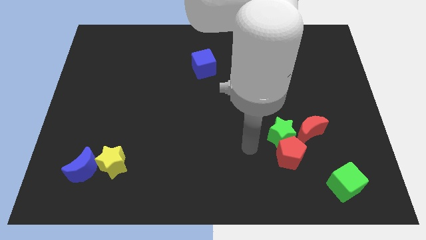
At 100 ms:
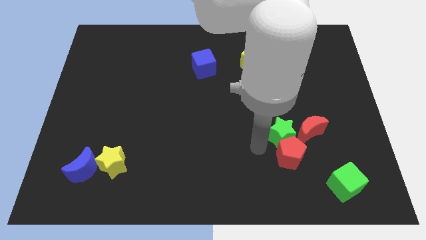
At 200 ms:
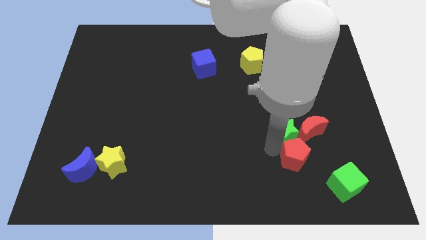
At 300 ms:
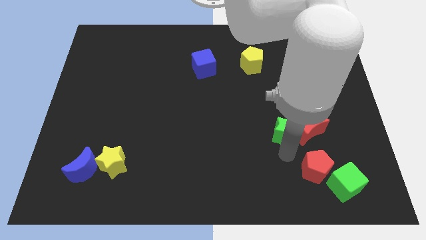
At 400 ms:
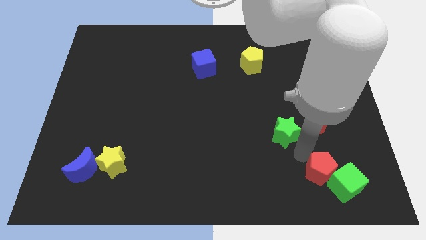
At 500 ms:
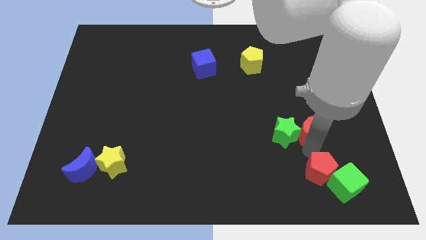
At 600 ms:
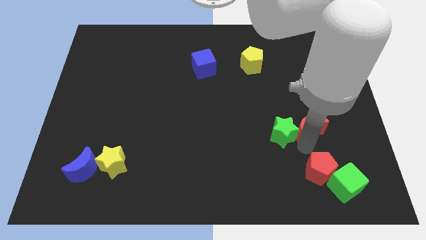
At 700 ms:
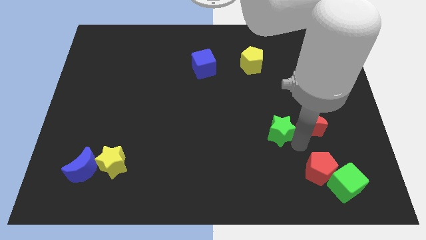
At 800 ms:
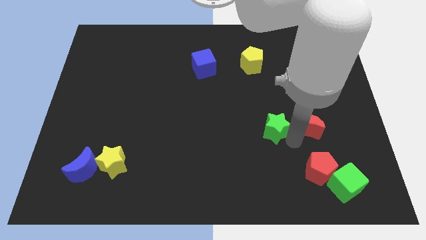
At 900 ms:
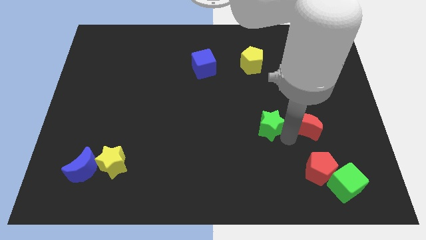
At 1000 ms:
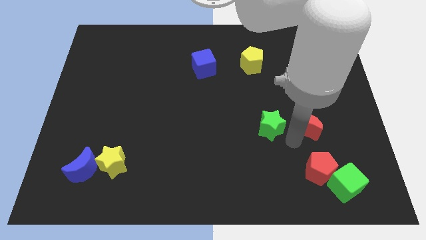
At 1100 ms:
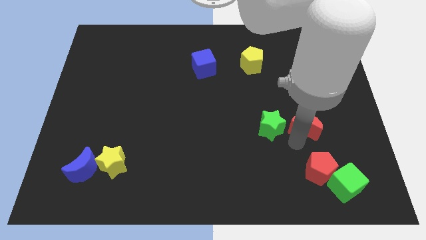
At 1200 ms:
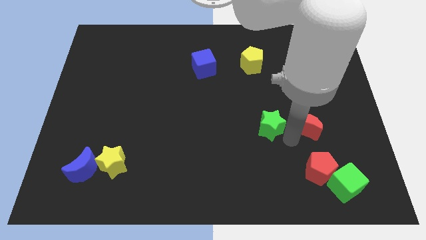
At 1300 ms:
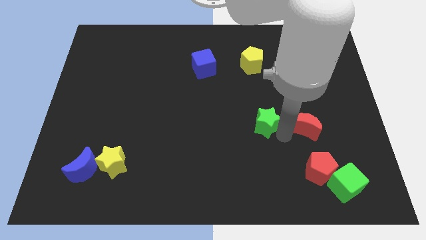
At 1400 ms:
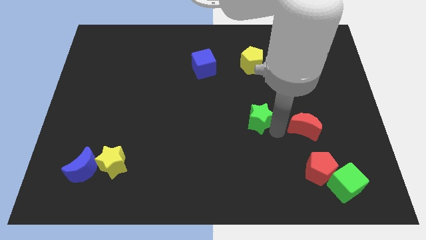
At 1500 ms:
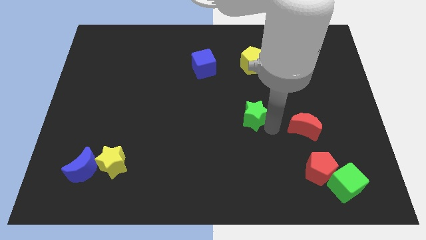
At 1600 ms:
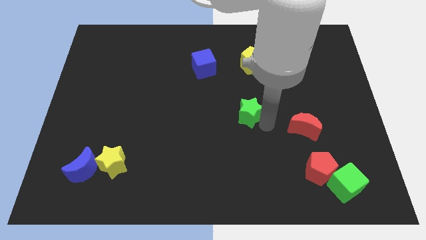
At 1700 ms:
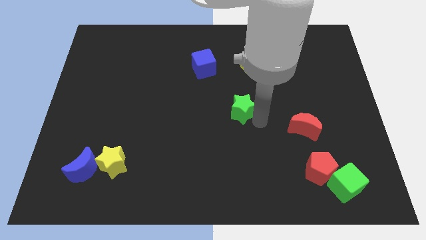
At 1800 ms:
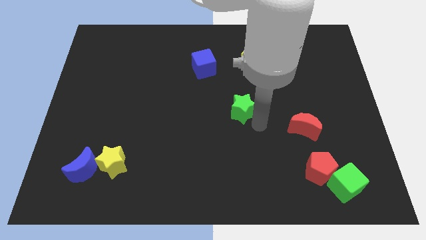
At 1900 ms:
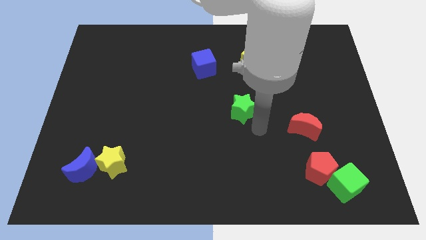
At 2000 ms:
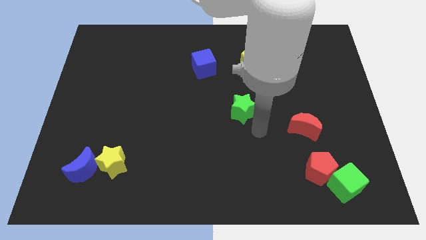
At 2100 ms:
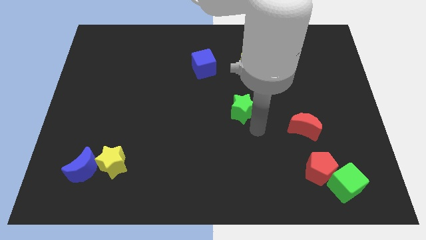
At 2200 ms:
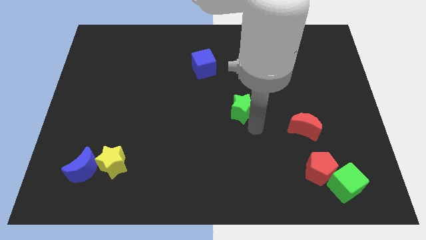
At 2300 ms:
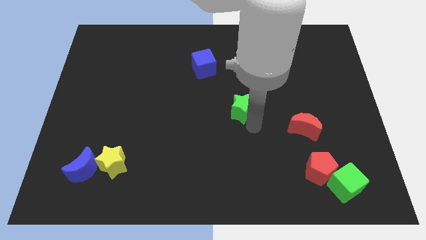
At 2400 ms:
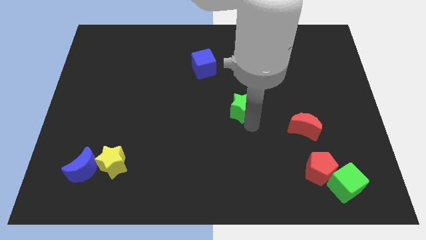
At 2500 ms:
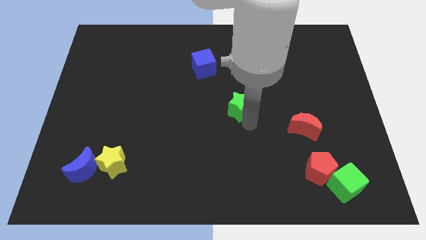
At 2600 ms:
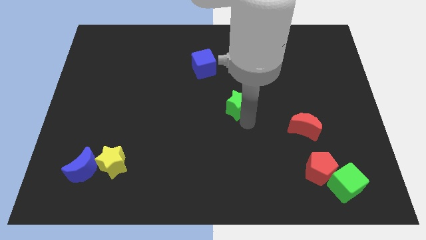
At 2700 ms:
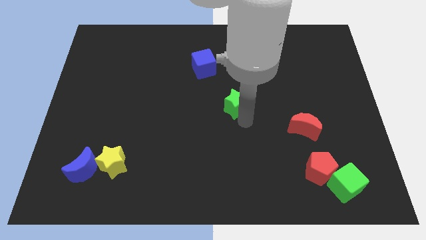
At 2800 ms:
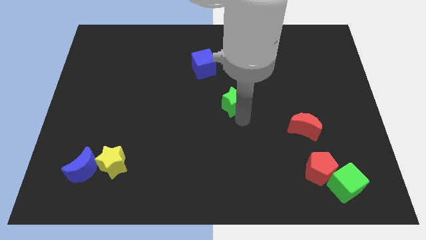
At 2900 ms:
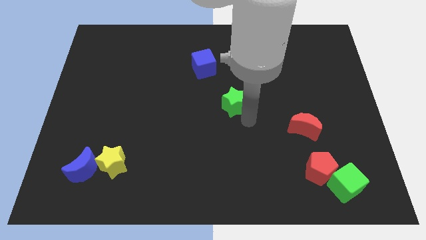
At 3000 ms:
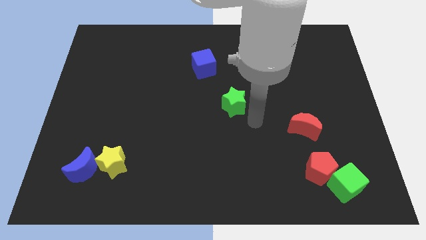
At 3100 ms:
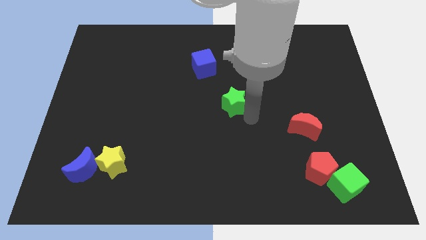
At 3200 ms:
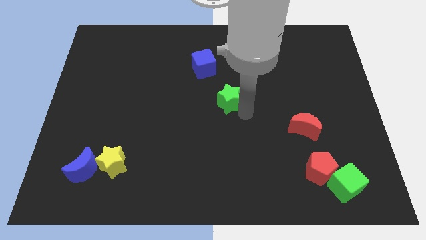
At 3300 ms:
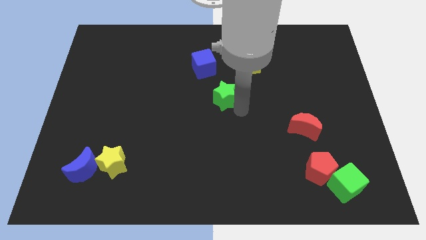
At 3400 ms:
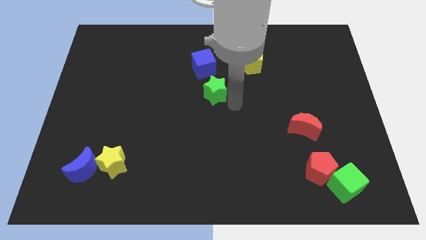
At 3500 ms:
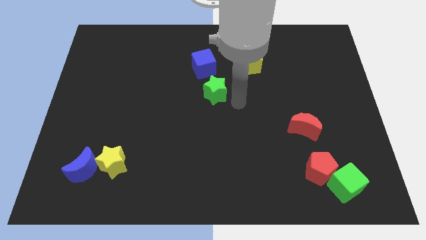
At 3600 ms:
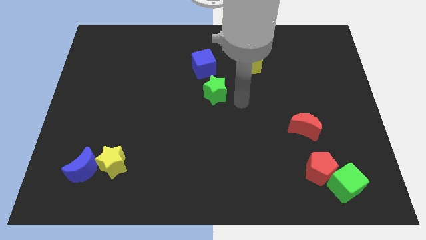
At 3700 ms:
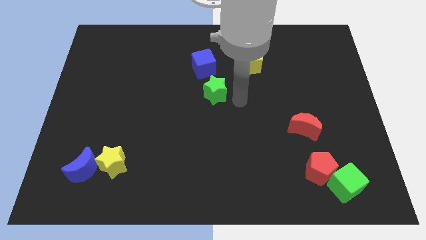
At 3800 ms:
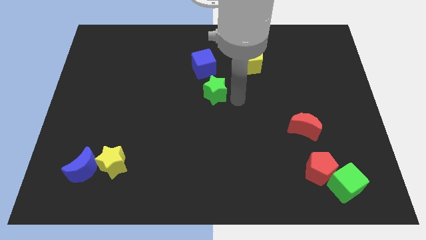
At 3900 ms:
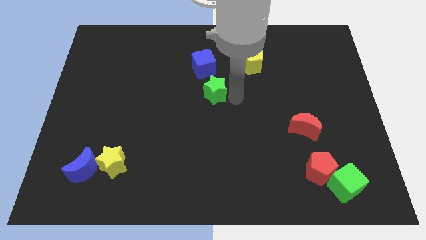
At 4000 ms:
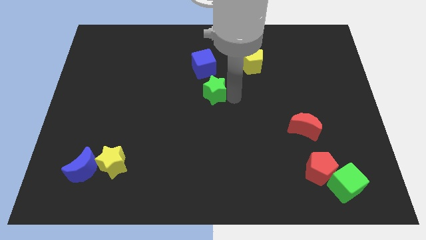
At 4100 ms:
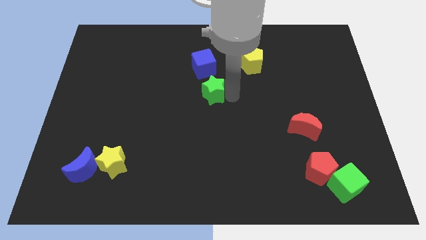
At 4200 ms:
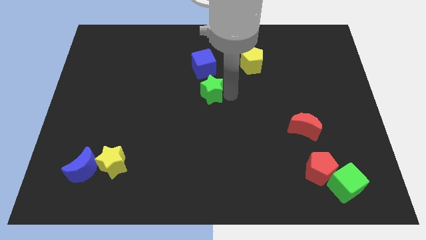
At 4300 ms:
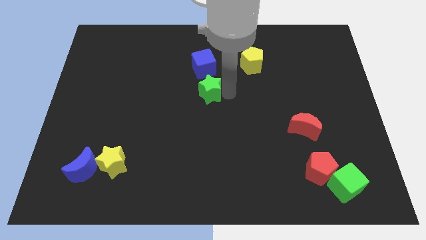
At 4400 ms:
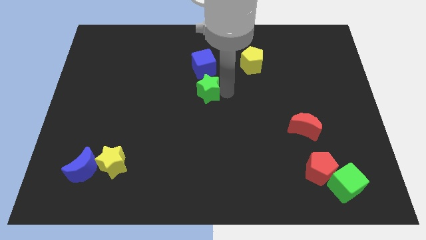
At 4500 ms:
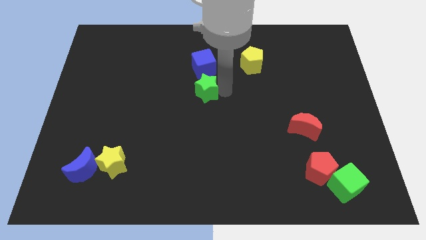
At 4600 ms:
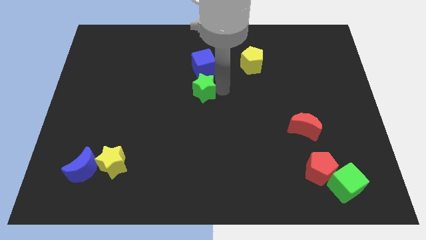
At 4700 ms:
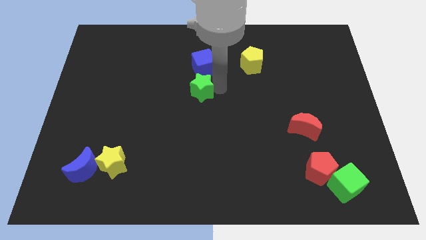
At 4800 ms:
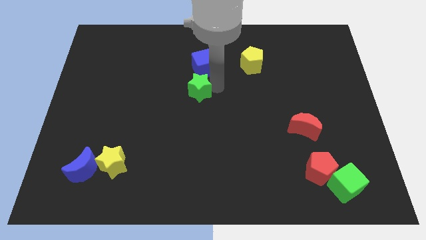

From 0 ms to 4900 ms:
push the green star to the bottom left of the blue cube

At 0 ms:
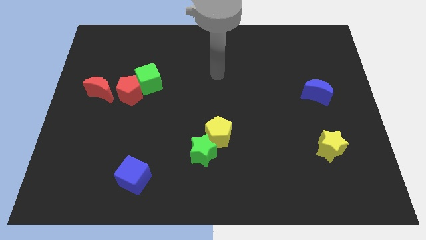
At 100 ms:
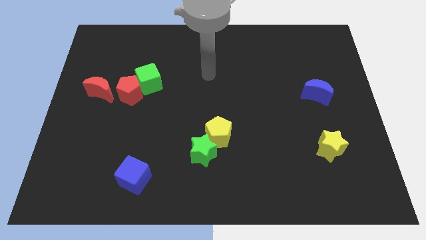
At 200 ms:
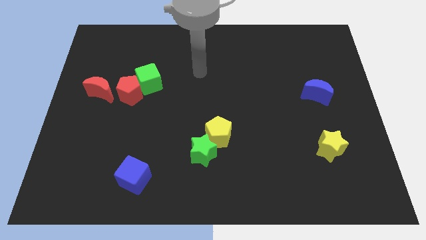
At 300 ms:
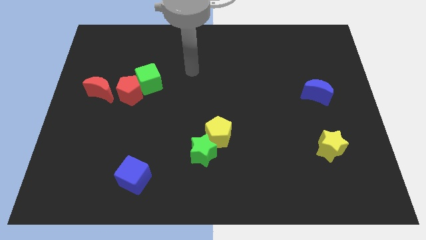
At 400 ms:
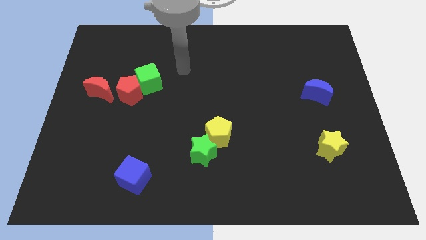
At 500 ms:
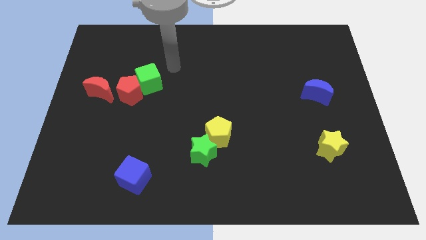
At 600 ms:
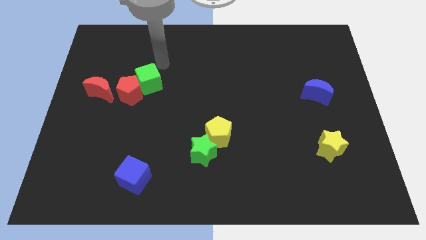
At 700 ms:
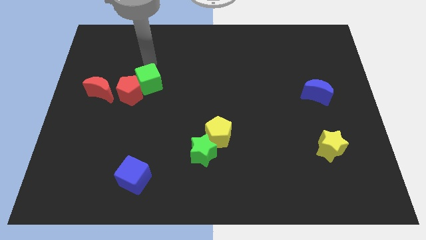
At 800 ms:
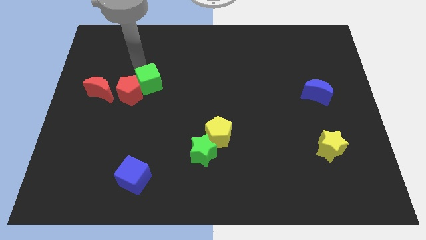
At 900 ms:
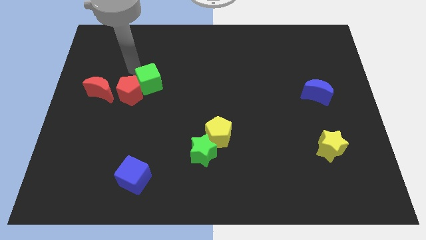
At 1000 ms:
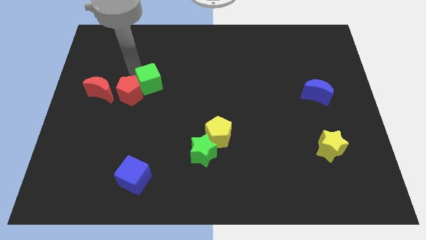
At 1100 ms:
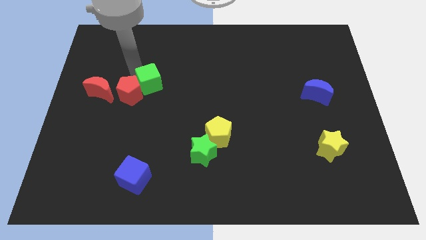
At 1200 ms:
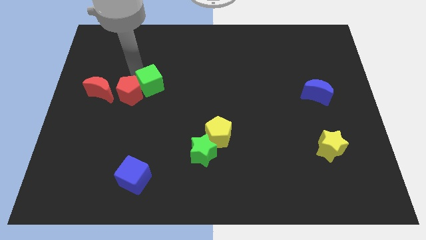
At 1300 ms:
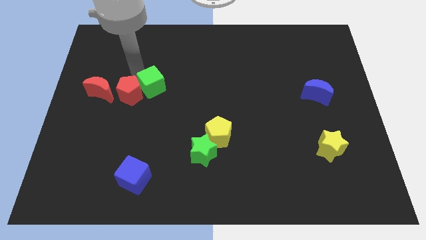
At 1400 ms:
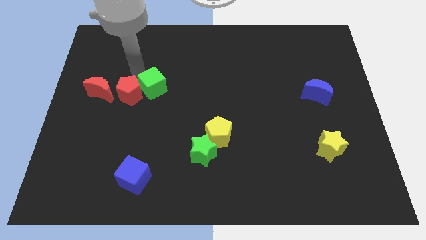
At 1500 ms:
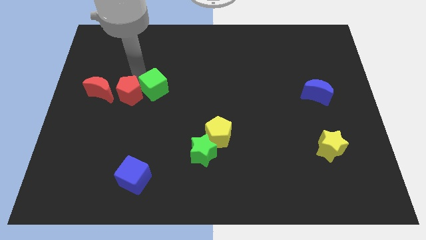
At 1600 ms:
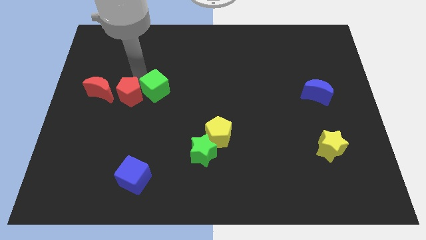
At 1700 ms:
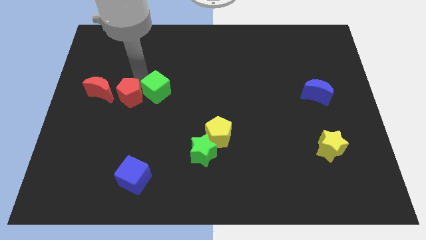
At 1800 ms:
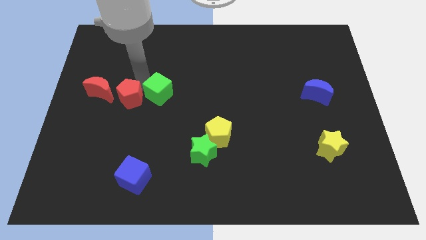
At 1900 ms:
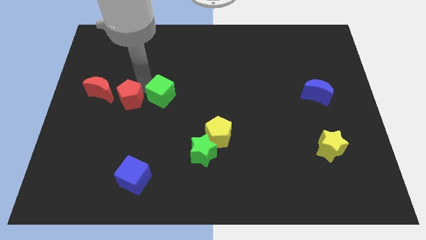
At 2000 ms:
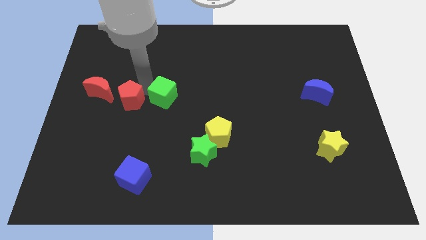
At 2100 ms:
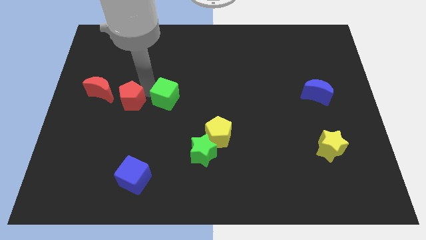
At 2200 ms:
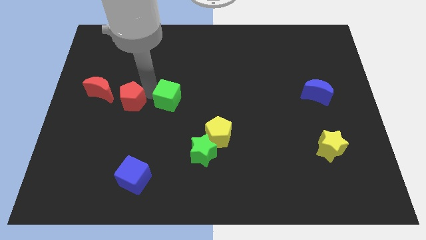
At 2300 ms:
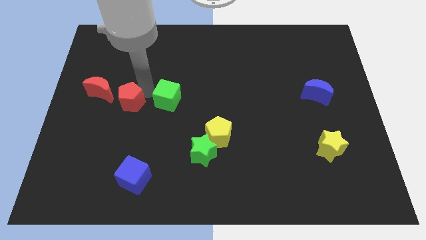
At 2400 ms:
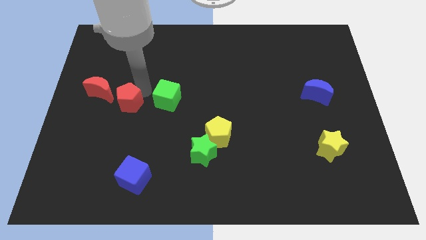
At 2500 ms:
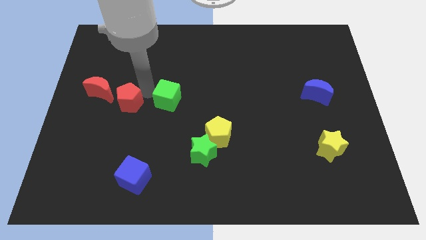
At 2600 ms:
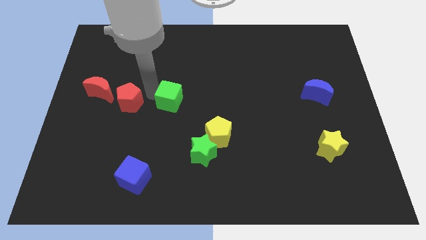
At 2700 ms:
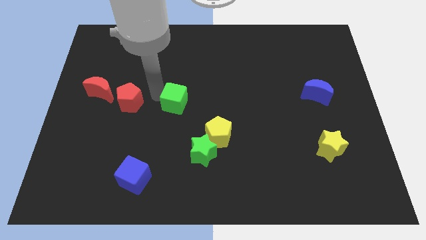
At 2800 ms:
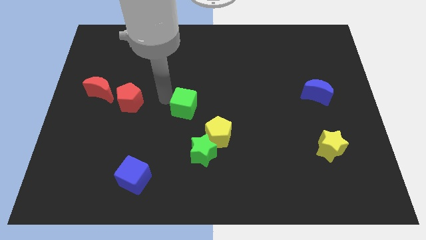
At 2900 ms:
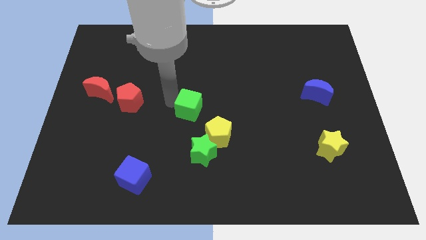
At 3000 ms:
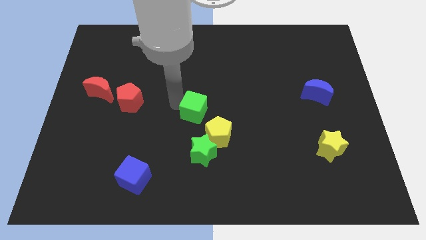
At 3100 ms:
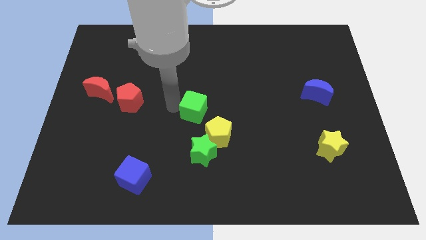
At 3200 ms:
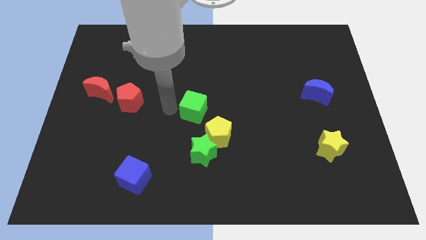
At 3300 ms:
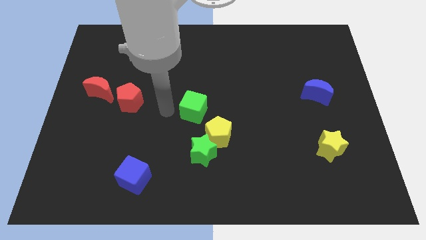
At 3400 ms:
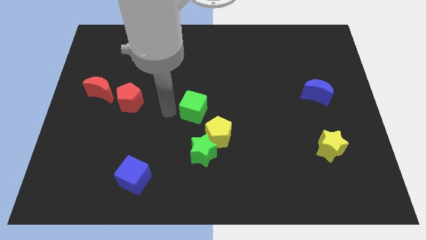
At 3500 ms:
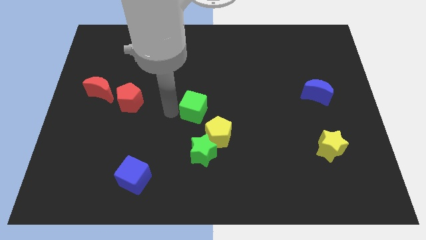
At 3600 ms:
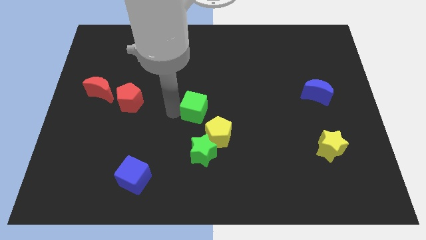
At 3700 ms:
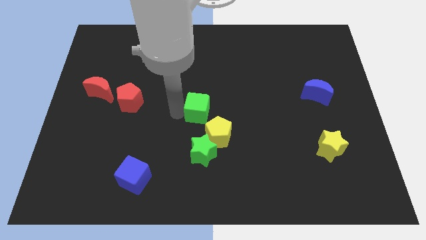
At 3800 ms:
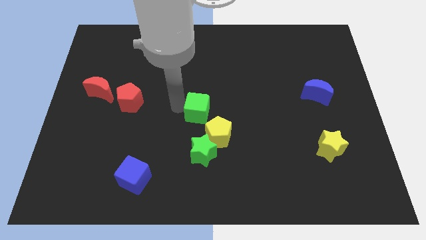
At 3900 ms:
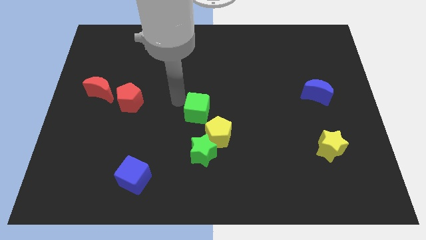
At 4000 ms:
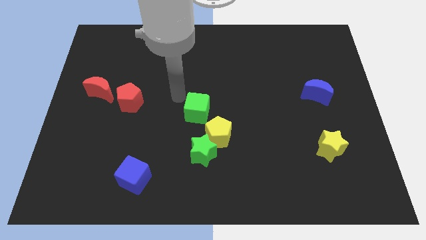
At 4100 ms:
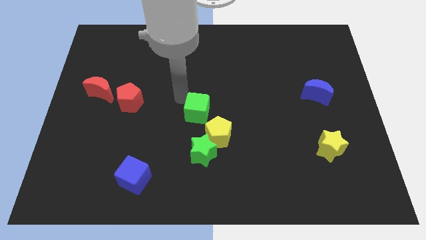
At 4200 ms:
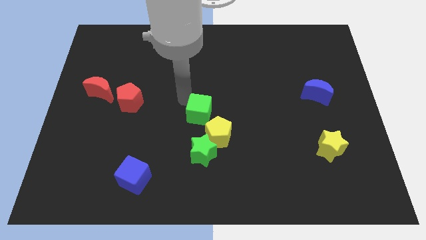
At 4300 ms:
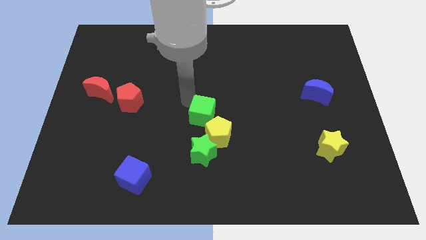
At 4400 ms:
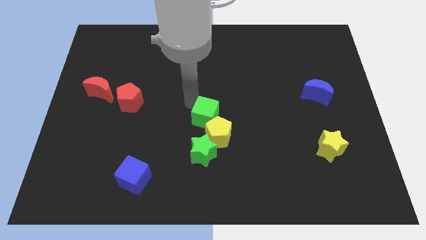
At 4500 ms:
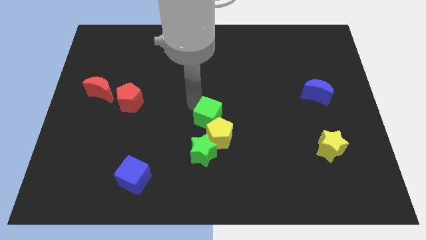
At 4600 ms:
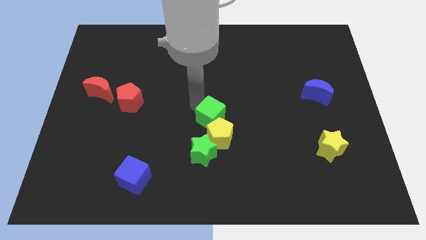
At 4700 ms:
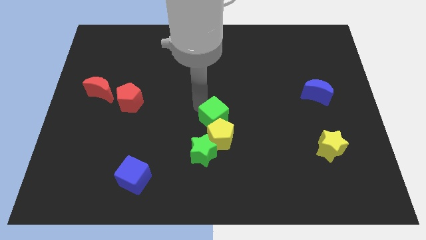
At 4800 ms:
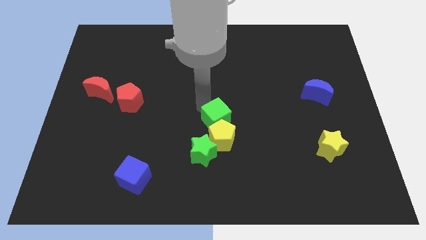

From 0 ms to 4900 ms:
move the green cube to the top right side of the green star
